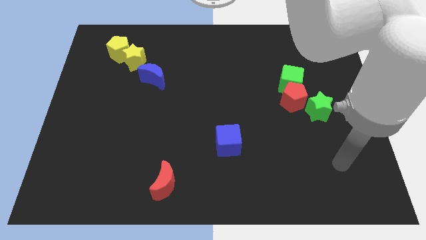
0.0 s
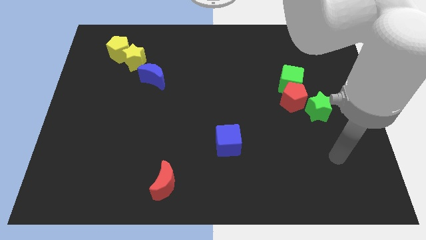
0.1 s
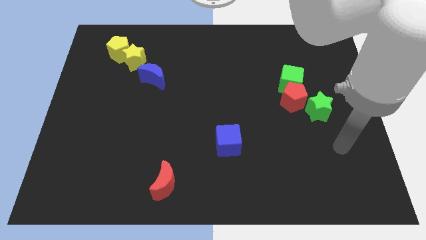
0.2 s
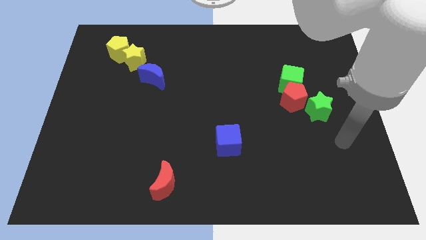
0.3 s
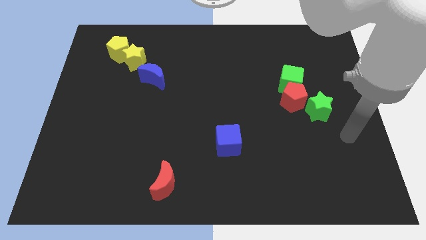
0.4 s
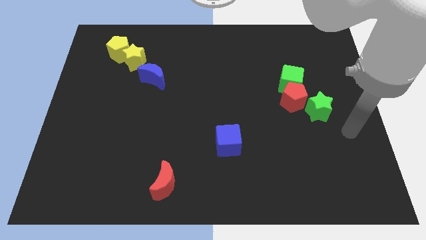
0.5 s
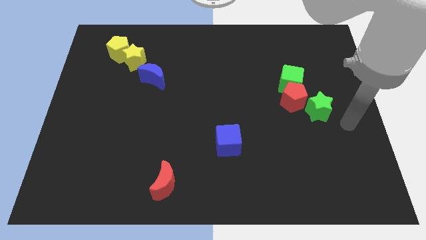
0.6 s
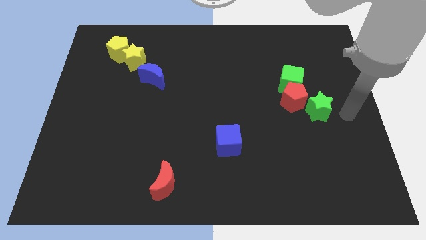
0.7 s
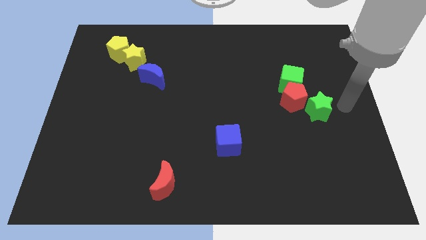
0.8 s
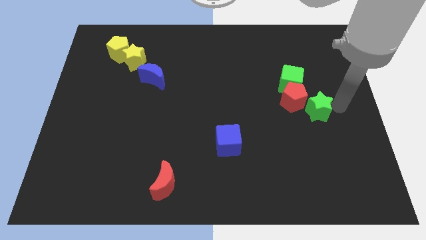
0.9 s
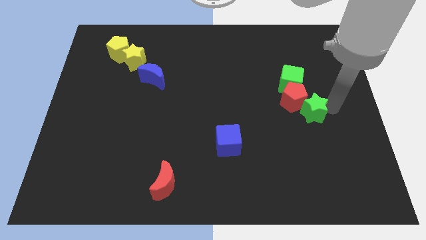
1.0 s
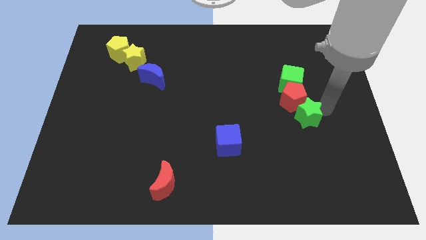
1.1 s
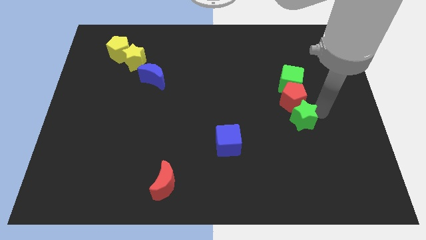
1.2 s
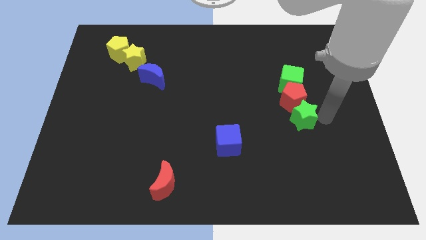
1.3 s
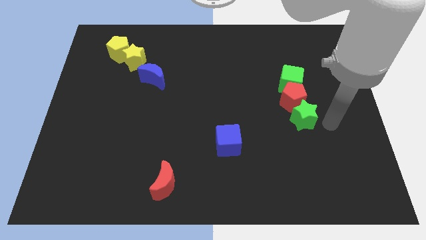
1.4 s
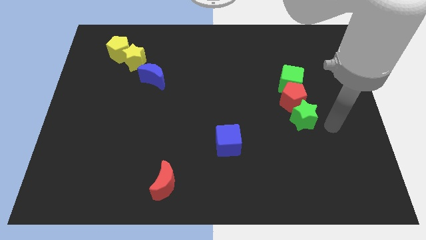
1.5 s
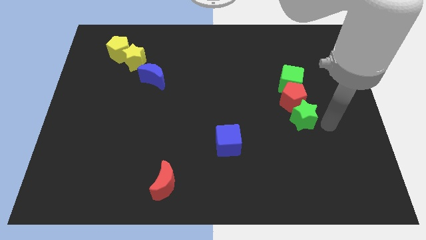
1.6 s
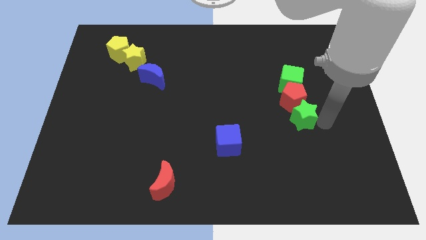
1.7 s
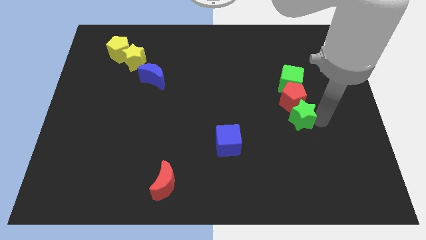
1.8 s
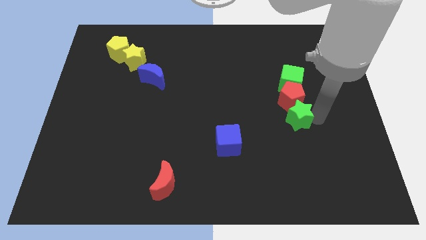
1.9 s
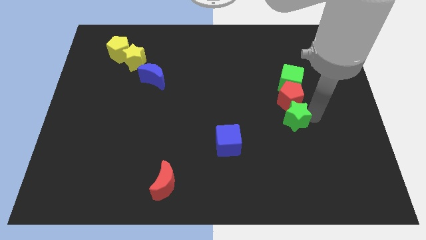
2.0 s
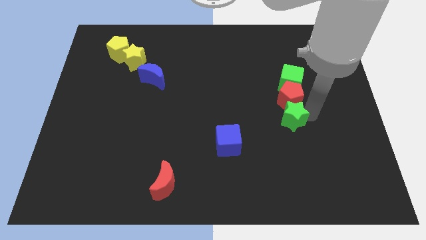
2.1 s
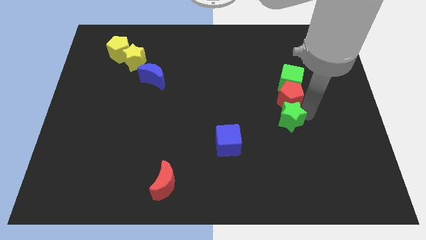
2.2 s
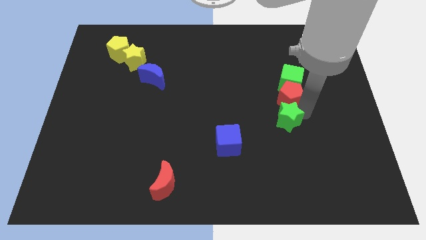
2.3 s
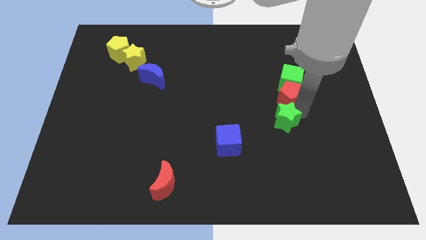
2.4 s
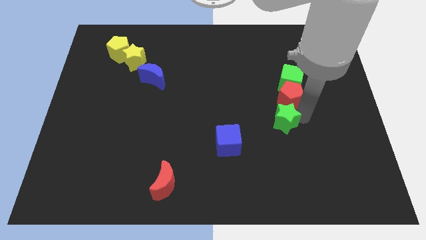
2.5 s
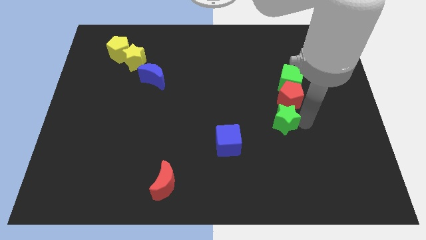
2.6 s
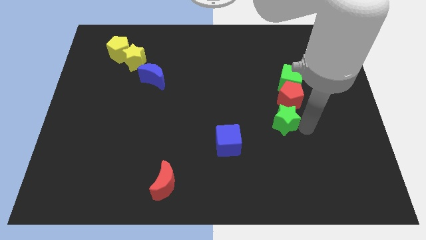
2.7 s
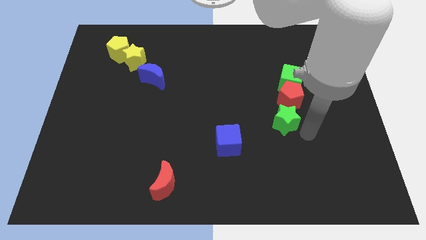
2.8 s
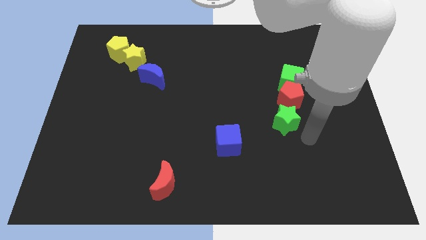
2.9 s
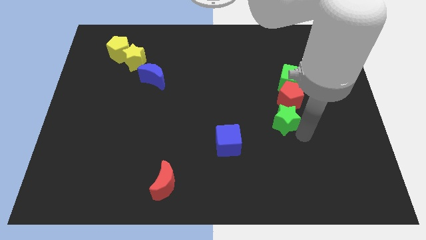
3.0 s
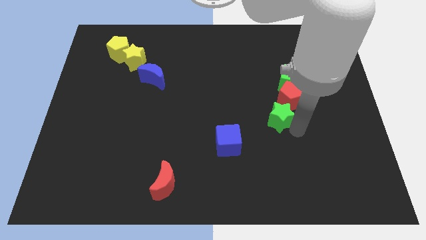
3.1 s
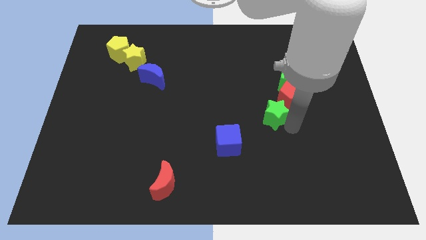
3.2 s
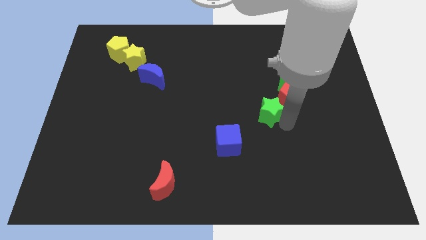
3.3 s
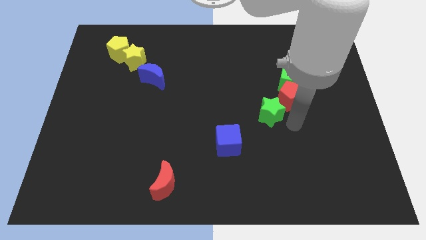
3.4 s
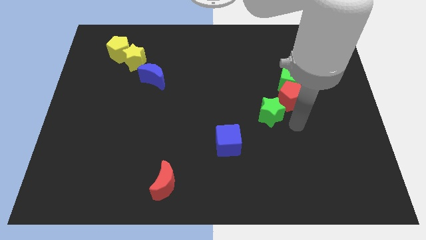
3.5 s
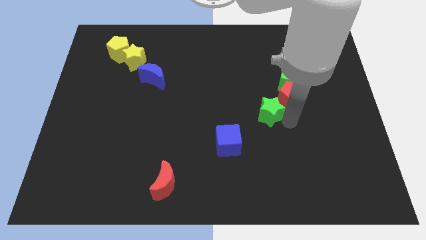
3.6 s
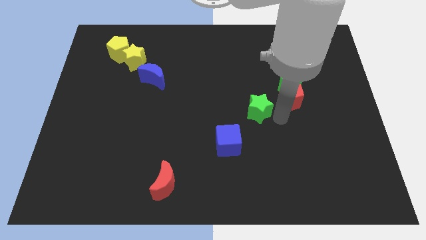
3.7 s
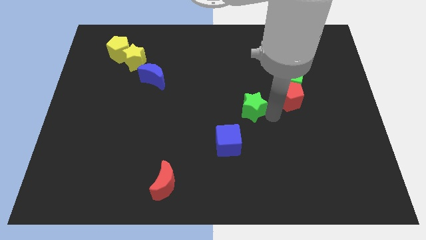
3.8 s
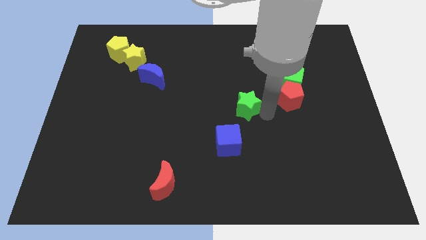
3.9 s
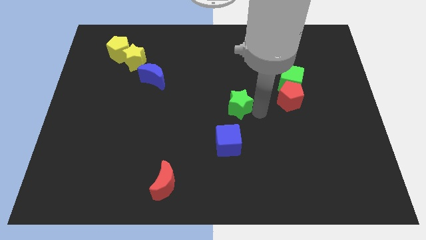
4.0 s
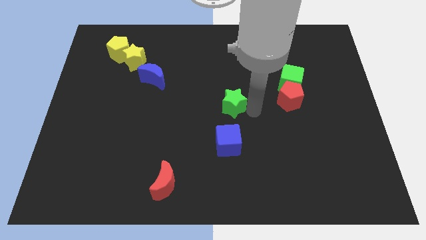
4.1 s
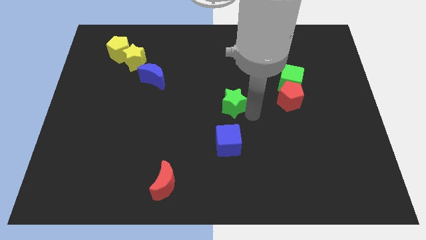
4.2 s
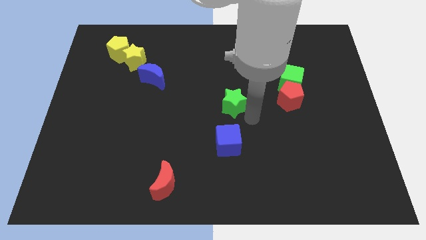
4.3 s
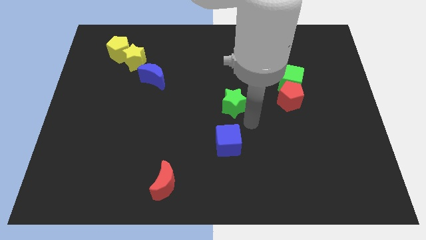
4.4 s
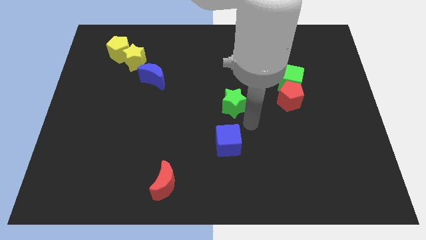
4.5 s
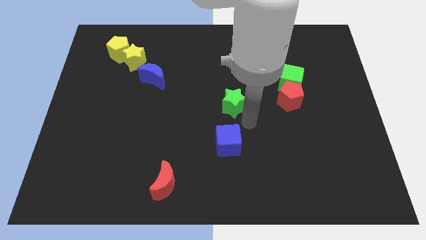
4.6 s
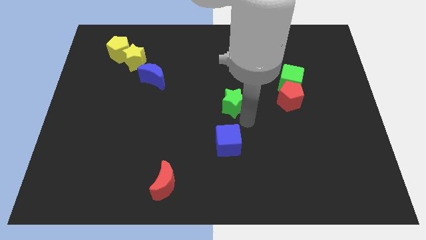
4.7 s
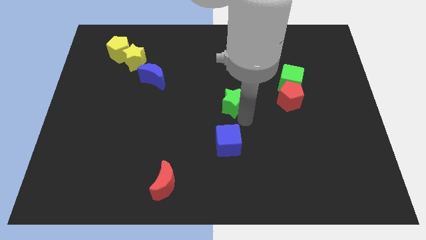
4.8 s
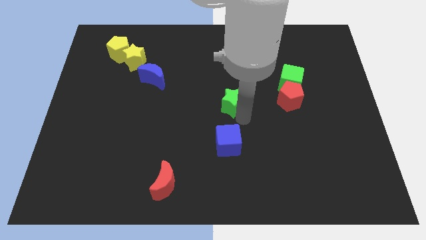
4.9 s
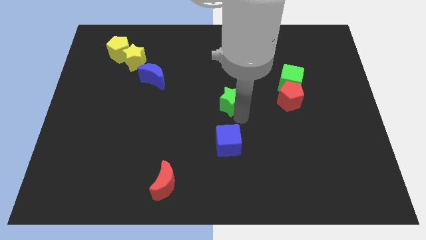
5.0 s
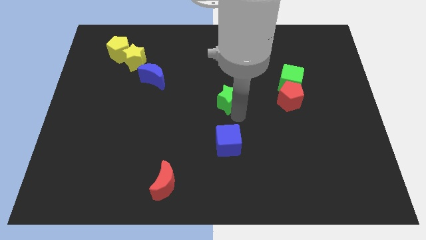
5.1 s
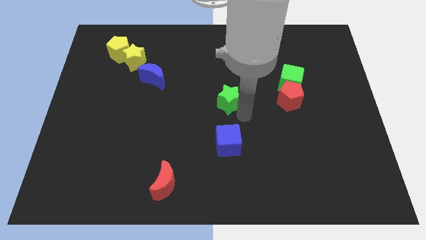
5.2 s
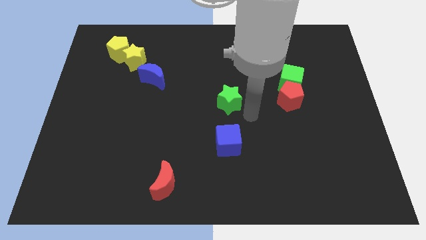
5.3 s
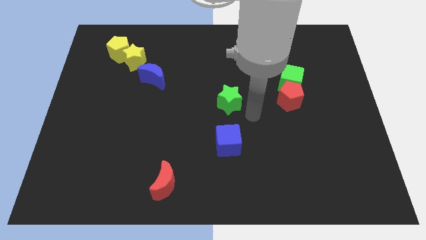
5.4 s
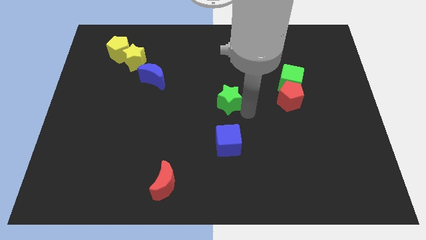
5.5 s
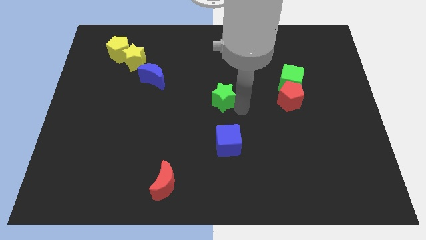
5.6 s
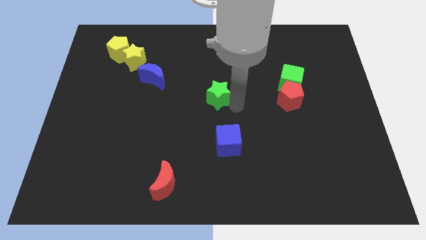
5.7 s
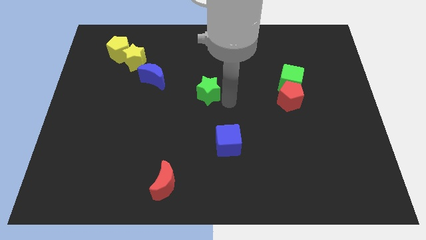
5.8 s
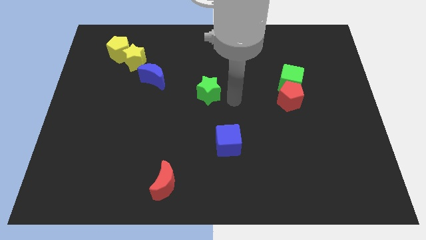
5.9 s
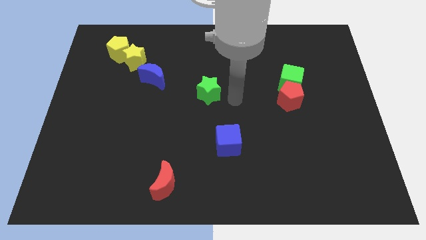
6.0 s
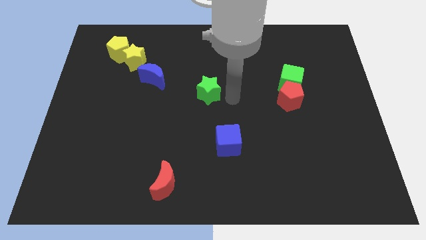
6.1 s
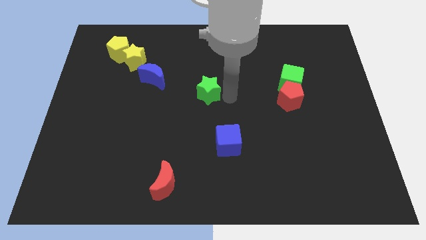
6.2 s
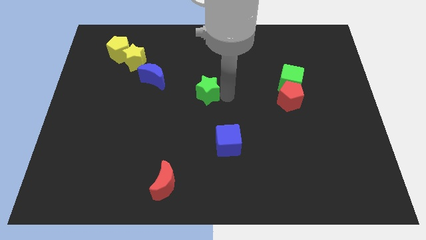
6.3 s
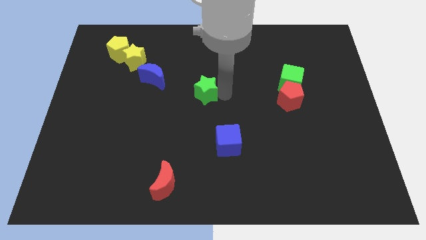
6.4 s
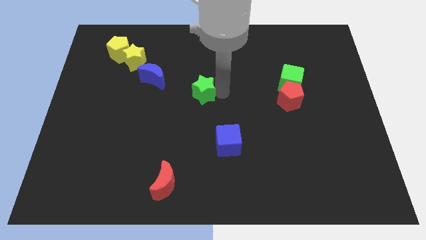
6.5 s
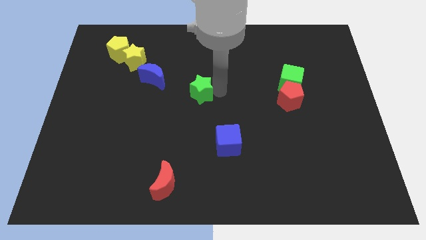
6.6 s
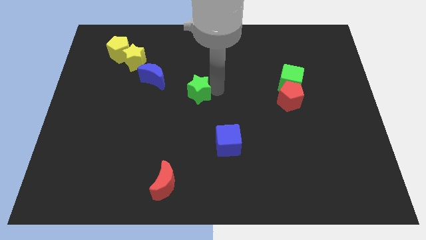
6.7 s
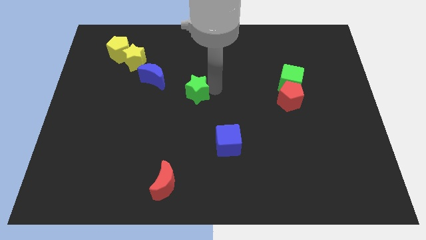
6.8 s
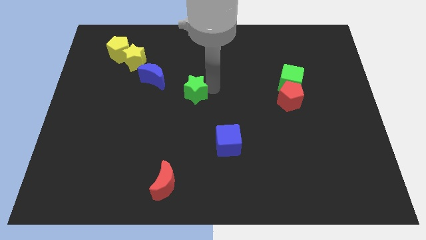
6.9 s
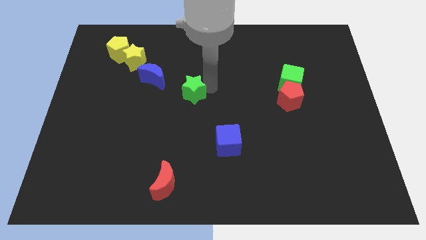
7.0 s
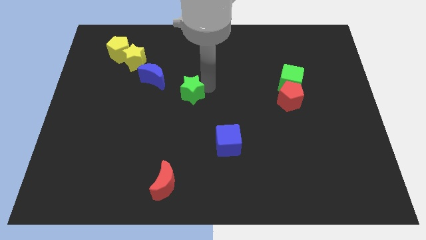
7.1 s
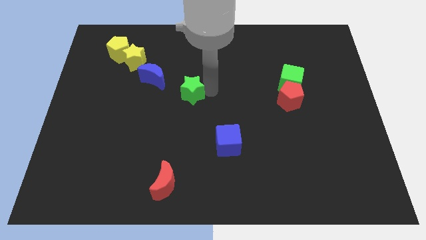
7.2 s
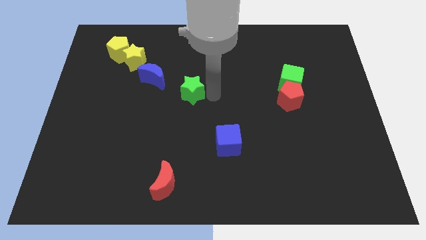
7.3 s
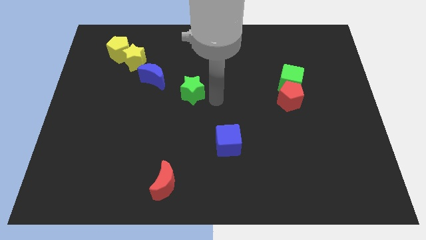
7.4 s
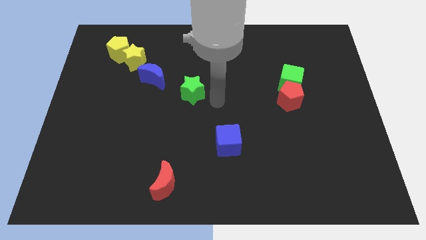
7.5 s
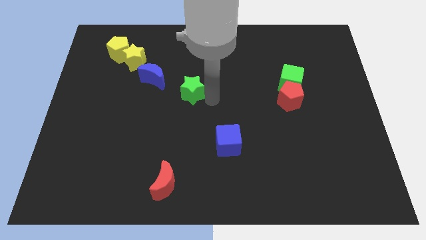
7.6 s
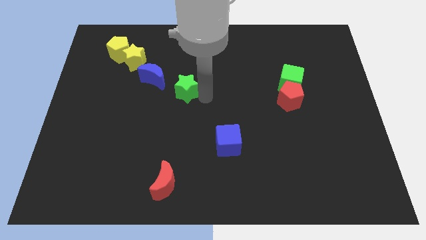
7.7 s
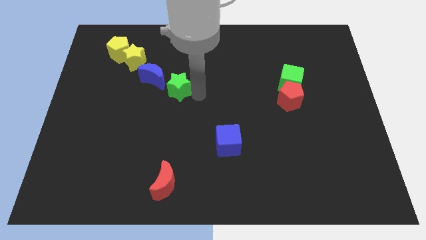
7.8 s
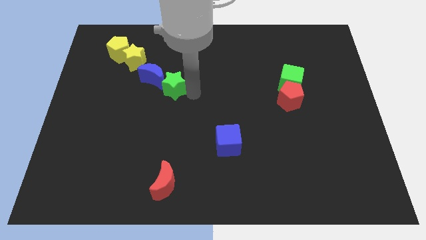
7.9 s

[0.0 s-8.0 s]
move the green star to the blue moon
